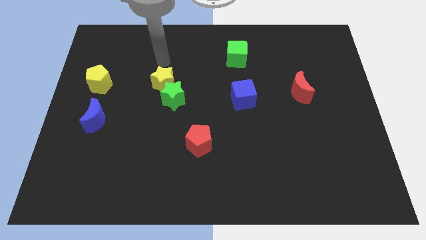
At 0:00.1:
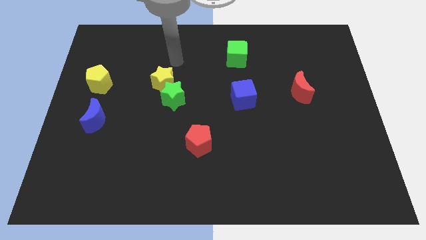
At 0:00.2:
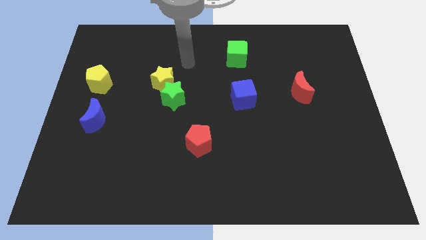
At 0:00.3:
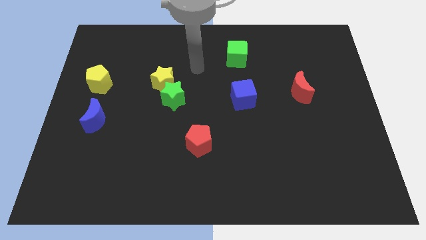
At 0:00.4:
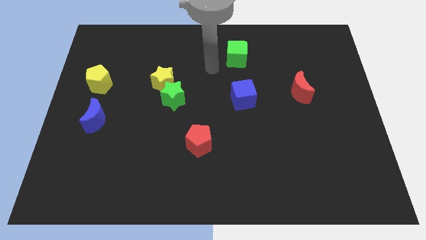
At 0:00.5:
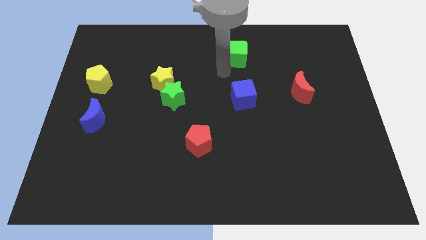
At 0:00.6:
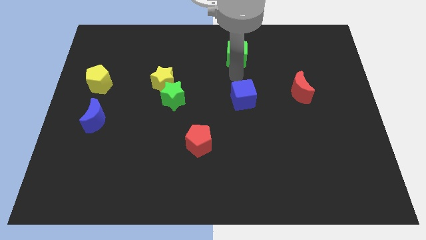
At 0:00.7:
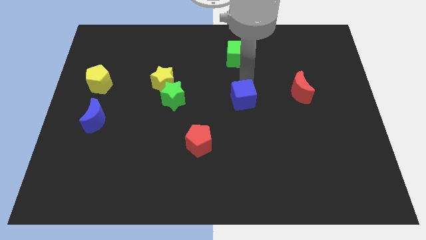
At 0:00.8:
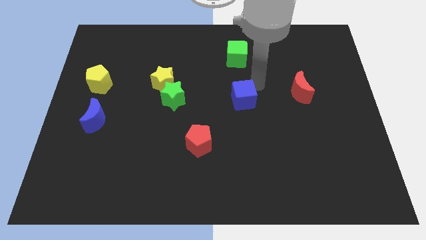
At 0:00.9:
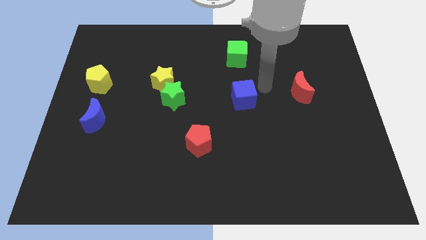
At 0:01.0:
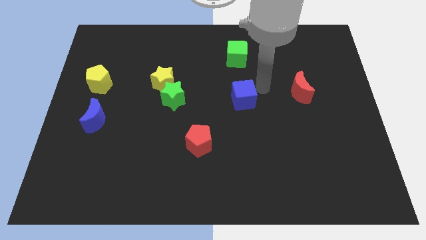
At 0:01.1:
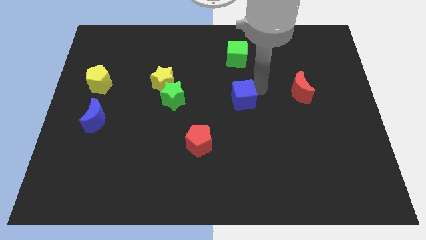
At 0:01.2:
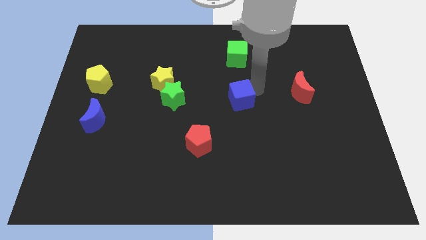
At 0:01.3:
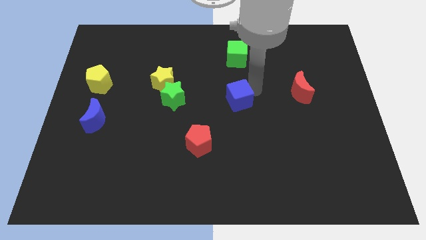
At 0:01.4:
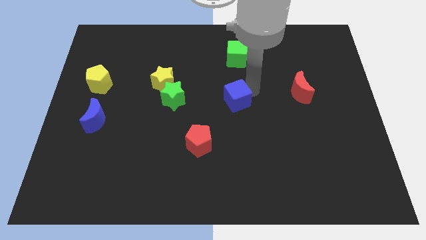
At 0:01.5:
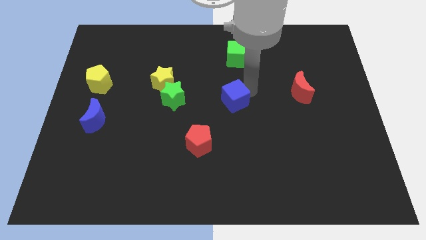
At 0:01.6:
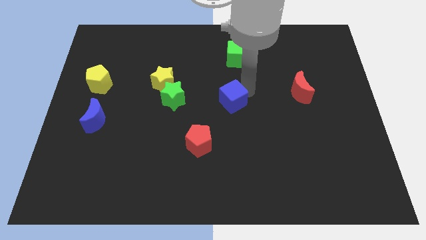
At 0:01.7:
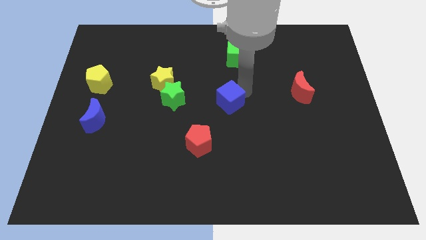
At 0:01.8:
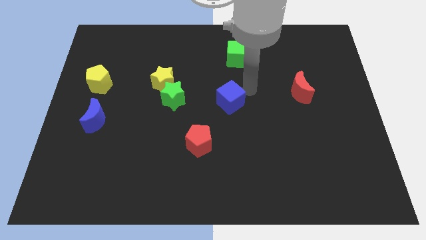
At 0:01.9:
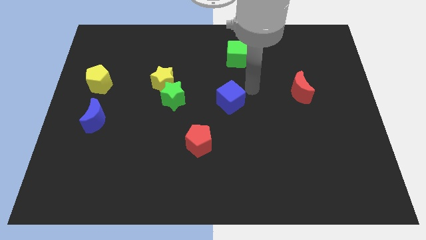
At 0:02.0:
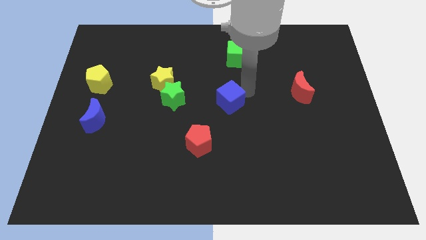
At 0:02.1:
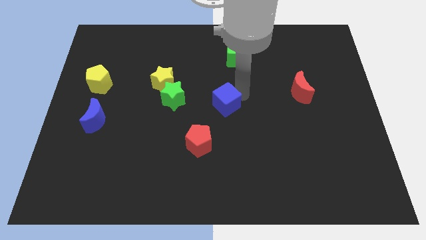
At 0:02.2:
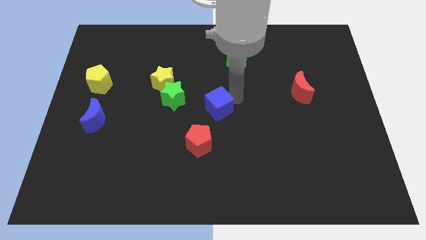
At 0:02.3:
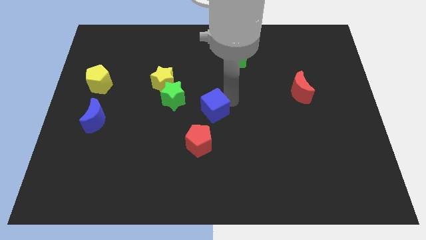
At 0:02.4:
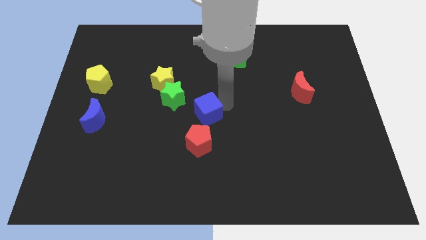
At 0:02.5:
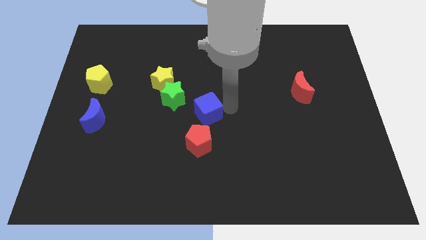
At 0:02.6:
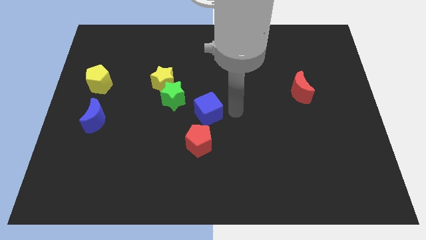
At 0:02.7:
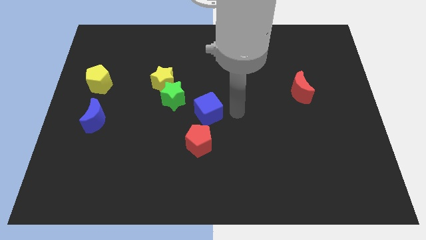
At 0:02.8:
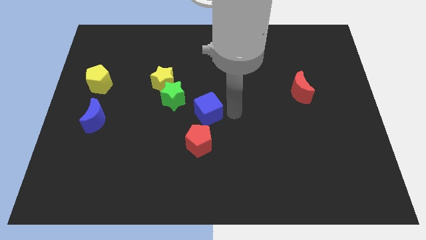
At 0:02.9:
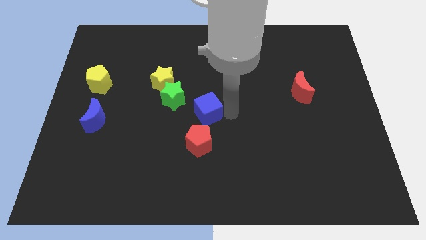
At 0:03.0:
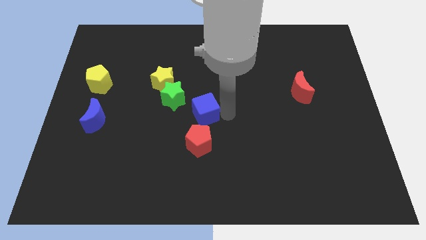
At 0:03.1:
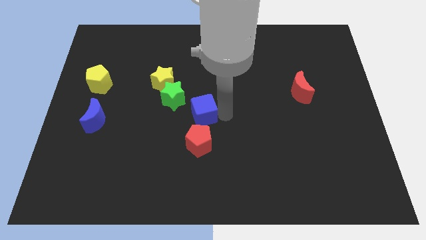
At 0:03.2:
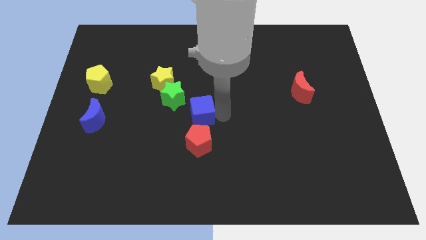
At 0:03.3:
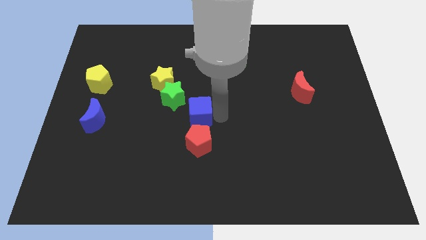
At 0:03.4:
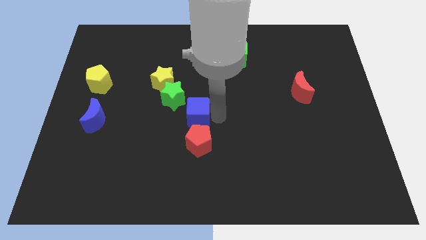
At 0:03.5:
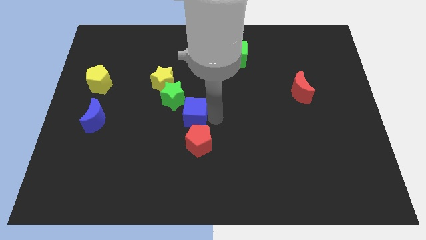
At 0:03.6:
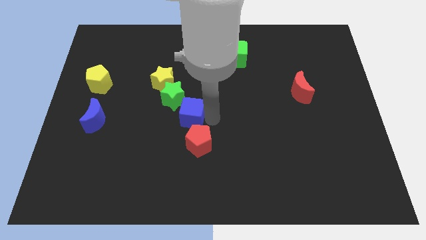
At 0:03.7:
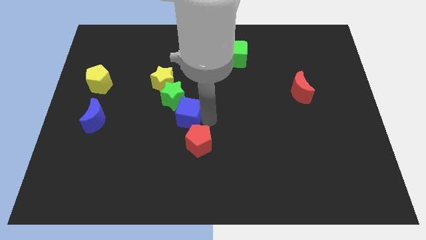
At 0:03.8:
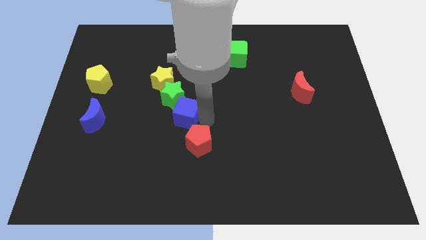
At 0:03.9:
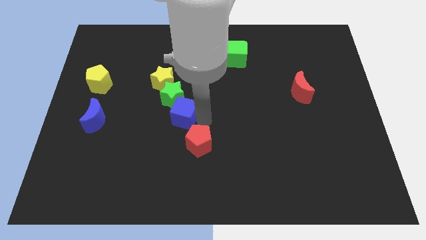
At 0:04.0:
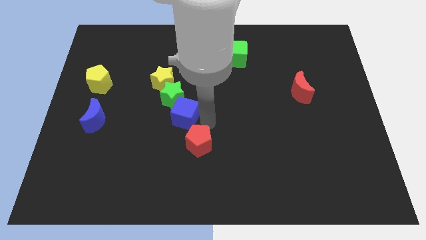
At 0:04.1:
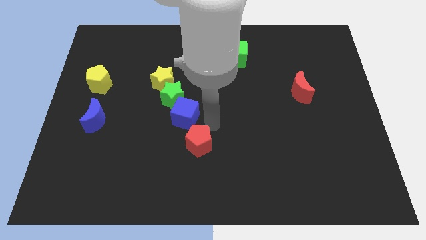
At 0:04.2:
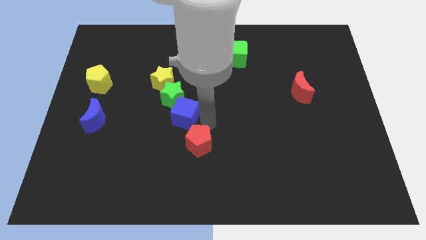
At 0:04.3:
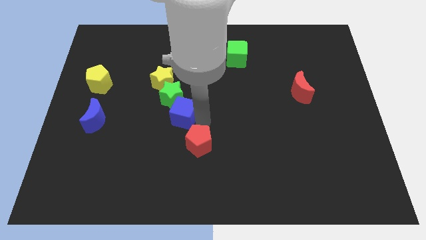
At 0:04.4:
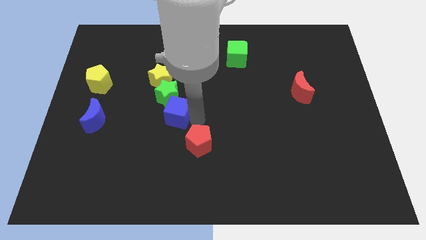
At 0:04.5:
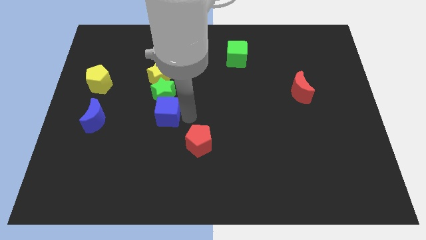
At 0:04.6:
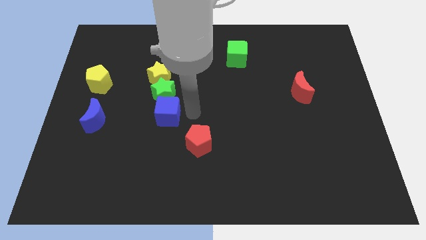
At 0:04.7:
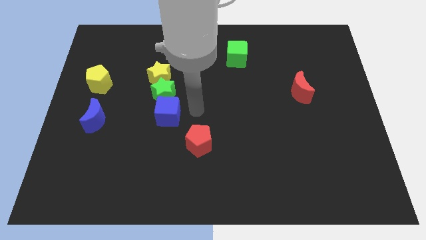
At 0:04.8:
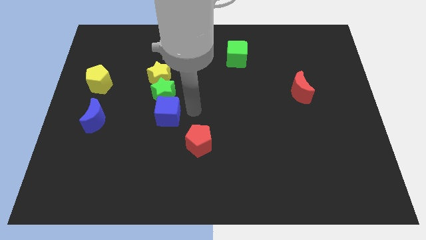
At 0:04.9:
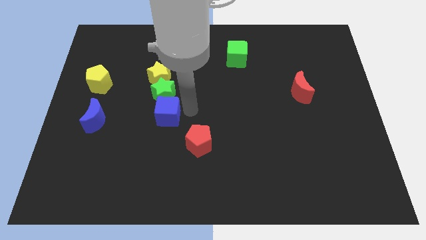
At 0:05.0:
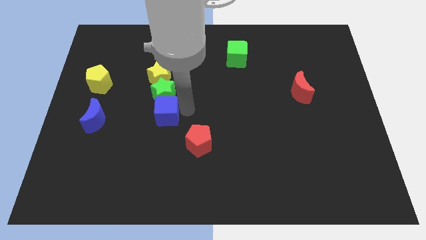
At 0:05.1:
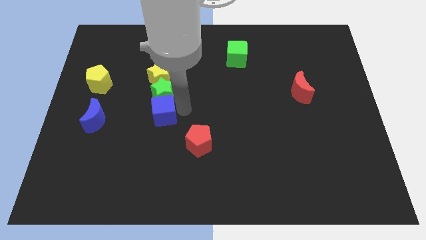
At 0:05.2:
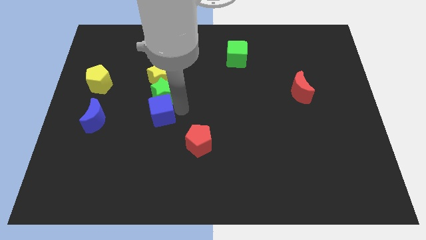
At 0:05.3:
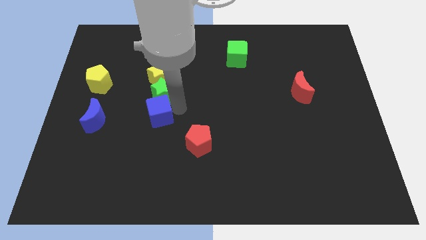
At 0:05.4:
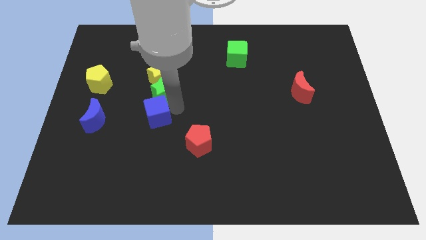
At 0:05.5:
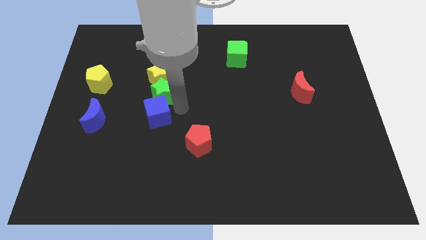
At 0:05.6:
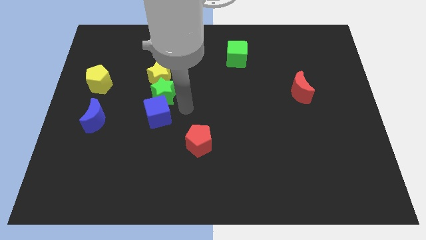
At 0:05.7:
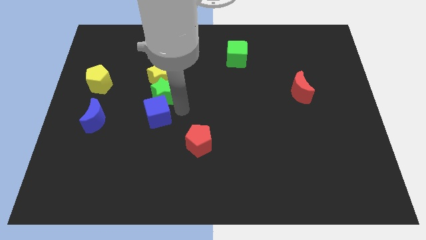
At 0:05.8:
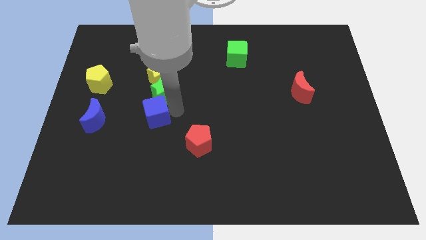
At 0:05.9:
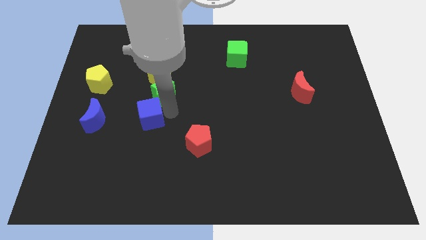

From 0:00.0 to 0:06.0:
slide the blue cube left

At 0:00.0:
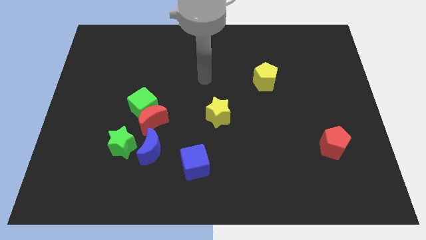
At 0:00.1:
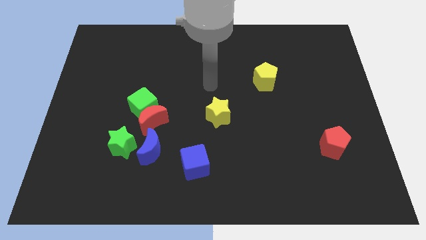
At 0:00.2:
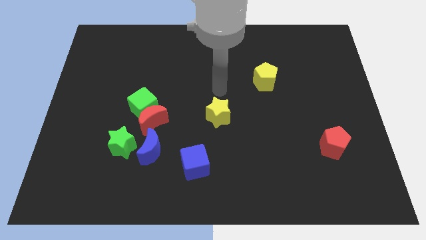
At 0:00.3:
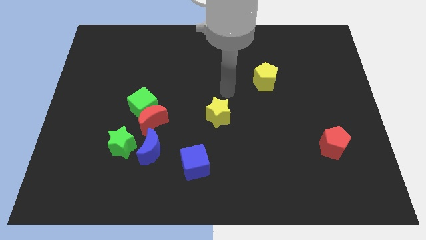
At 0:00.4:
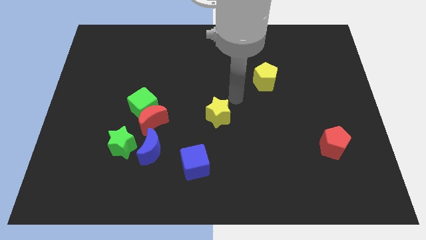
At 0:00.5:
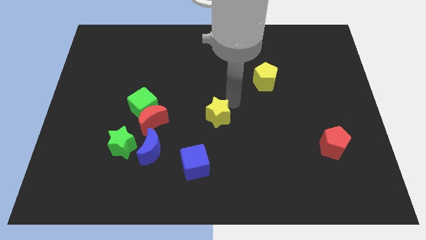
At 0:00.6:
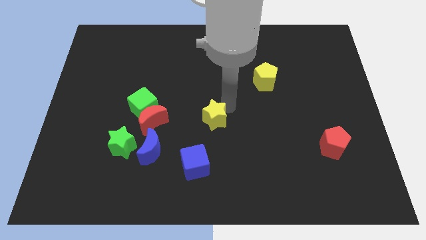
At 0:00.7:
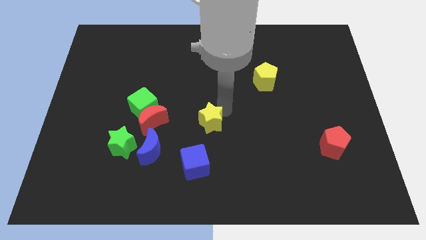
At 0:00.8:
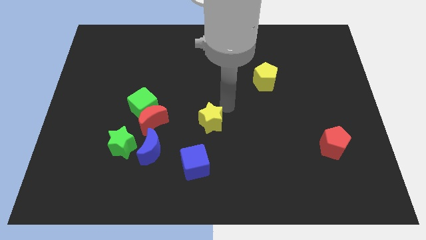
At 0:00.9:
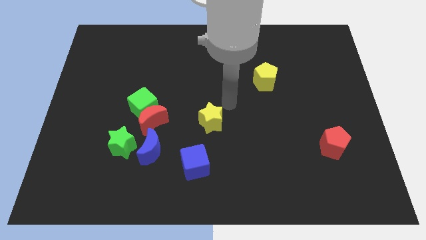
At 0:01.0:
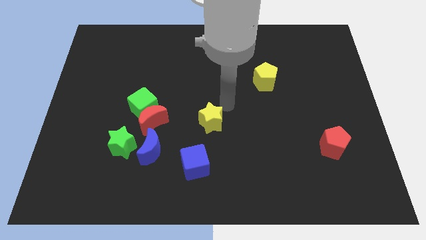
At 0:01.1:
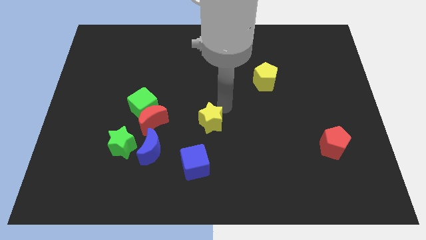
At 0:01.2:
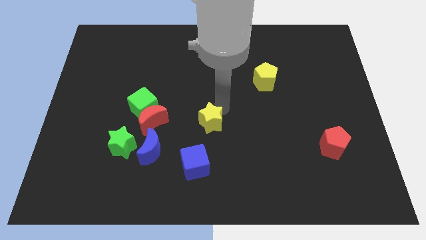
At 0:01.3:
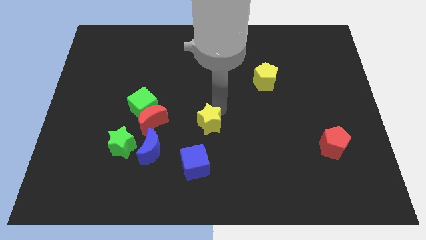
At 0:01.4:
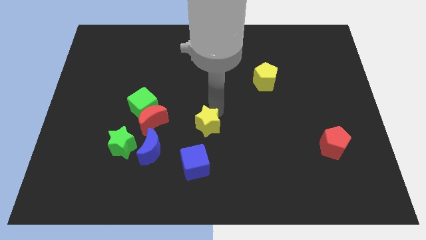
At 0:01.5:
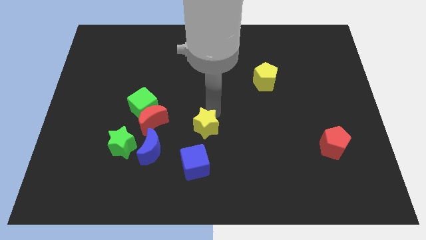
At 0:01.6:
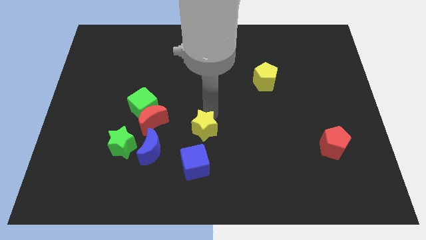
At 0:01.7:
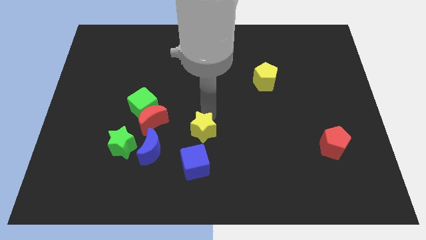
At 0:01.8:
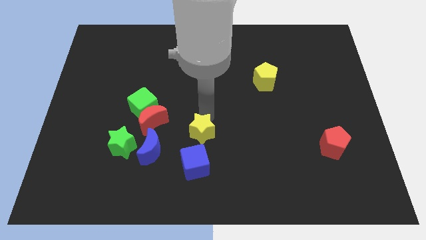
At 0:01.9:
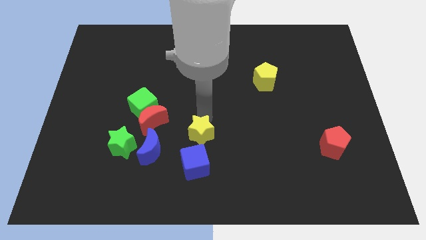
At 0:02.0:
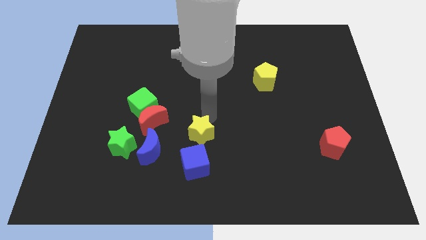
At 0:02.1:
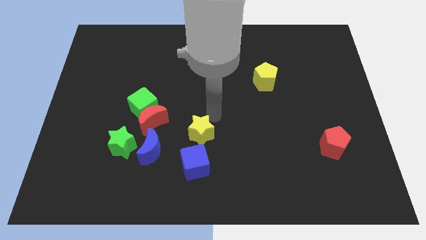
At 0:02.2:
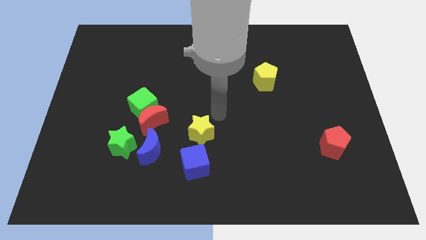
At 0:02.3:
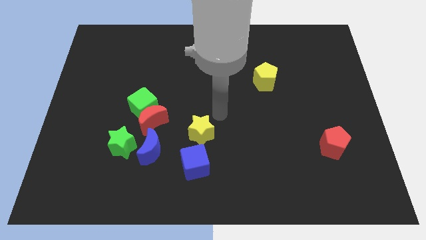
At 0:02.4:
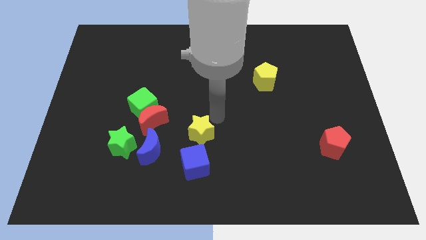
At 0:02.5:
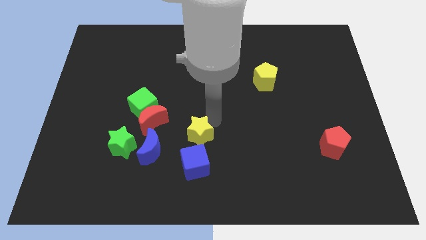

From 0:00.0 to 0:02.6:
slide the yellow star down and then left a little
